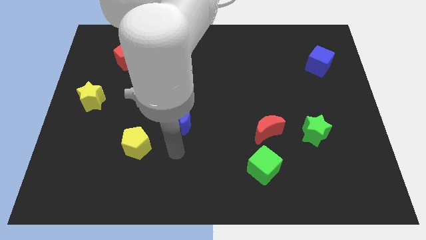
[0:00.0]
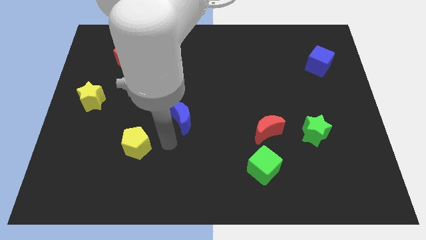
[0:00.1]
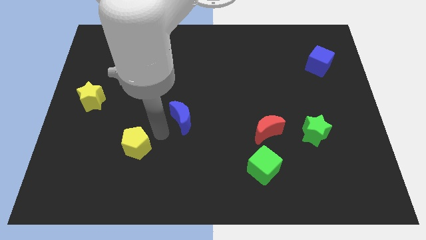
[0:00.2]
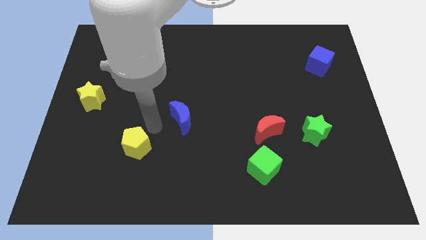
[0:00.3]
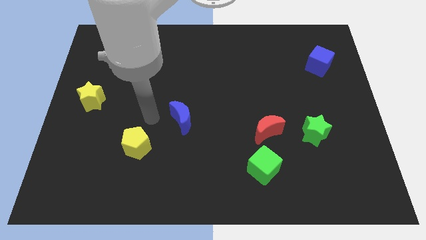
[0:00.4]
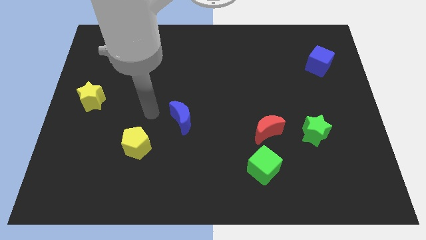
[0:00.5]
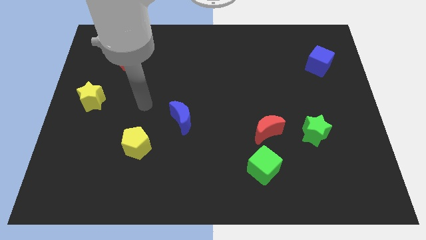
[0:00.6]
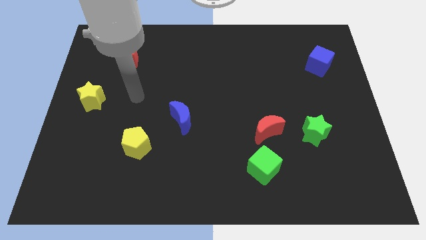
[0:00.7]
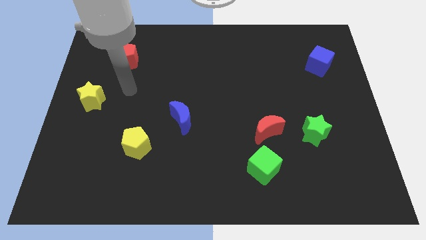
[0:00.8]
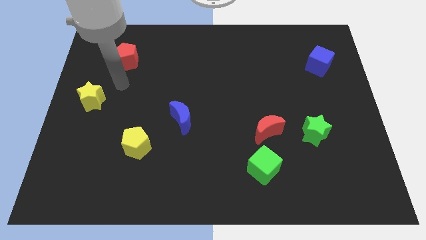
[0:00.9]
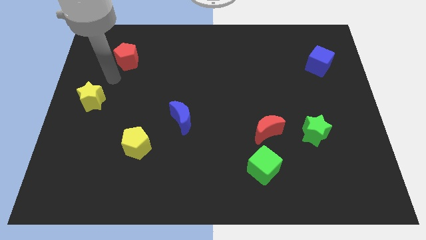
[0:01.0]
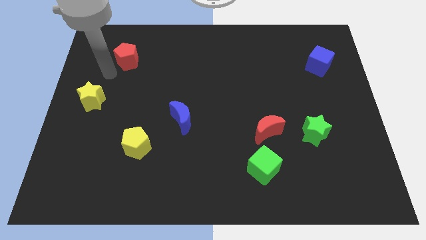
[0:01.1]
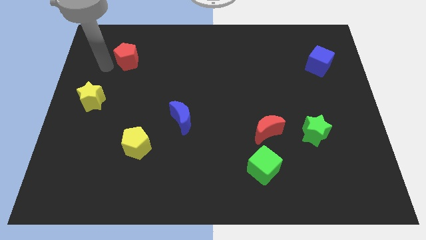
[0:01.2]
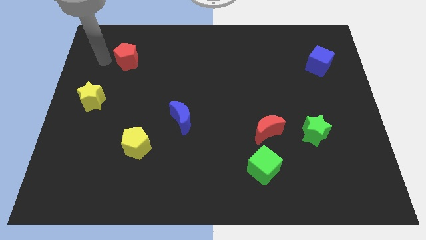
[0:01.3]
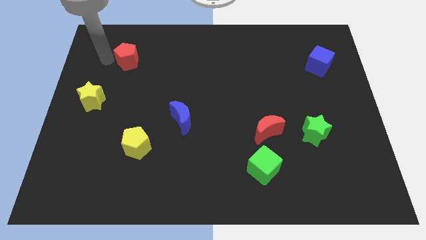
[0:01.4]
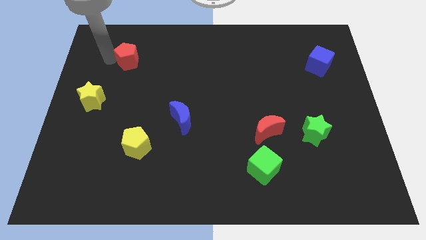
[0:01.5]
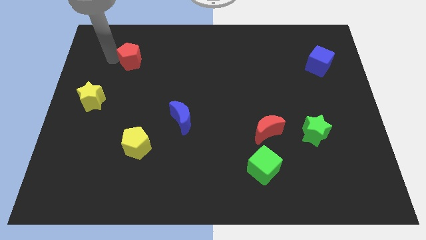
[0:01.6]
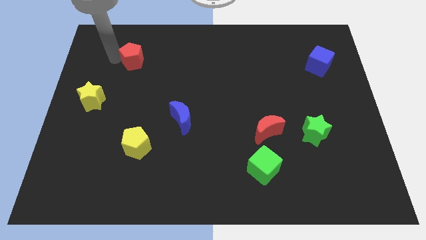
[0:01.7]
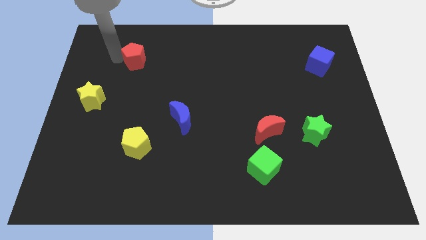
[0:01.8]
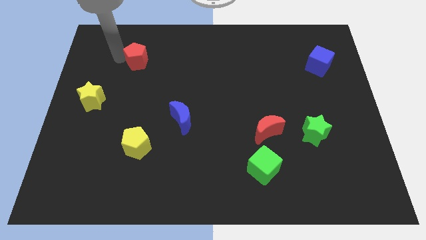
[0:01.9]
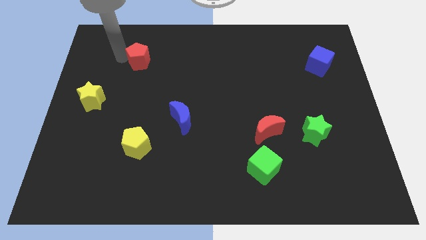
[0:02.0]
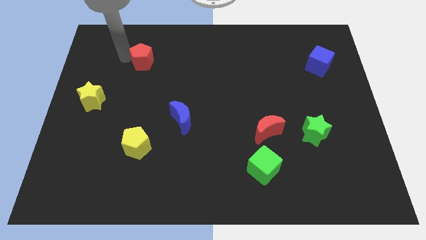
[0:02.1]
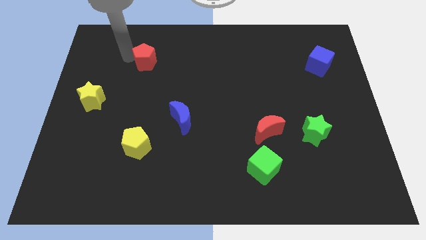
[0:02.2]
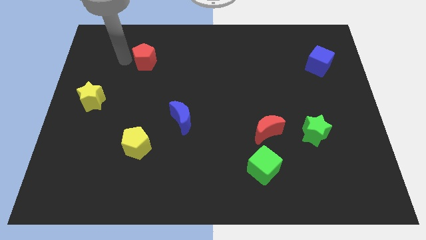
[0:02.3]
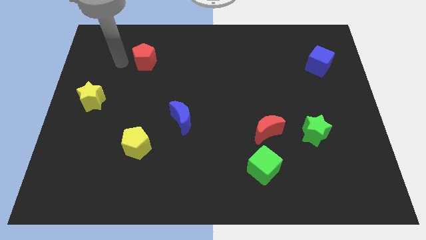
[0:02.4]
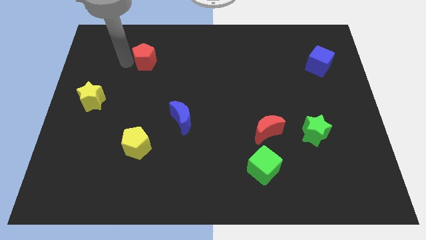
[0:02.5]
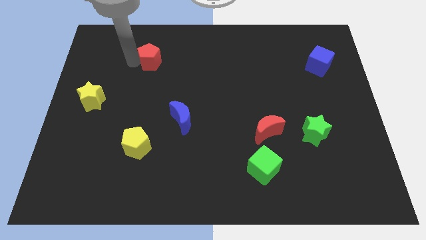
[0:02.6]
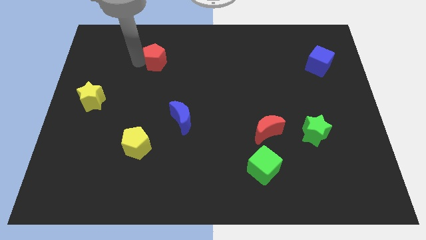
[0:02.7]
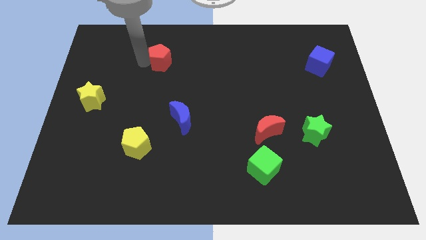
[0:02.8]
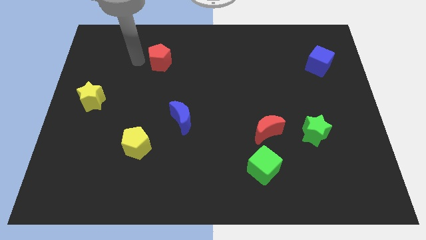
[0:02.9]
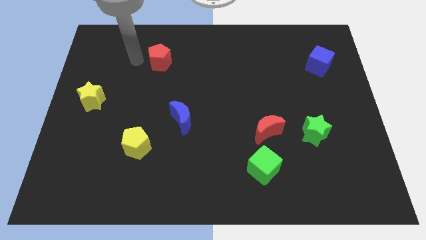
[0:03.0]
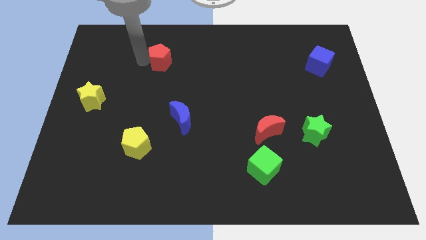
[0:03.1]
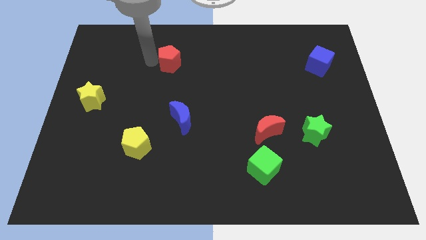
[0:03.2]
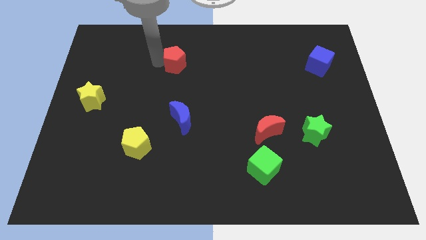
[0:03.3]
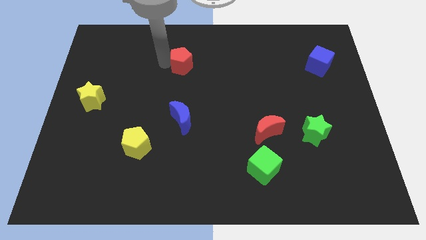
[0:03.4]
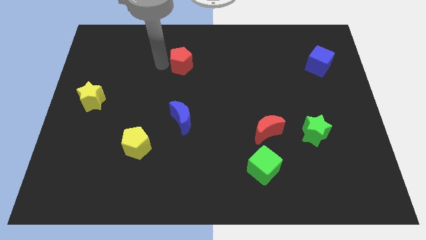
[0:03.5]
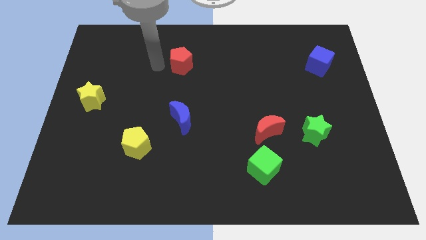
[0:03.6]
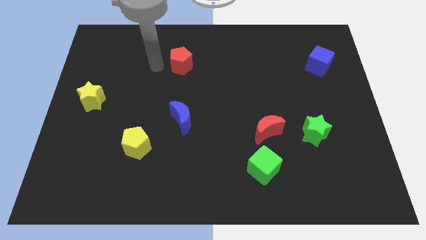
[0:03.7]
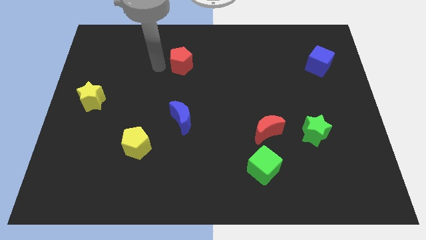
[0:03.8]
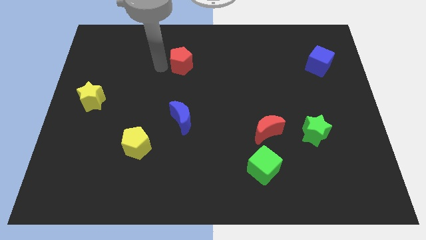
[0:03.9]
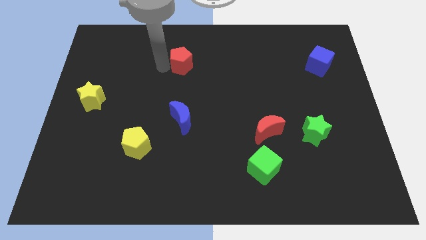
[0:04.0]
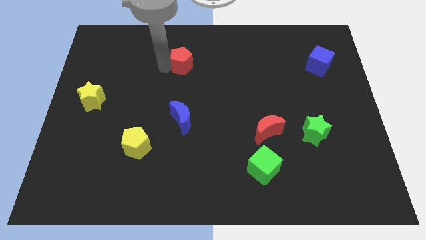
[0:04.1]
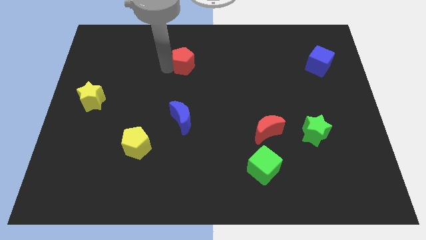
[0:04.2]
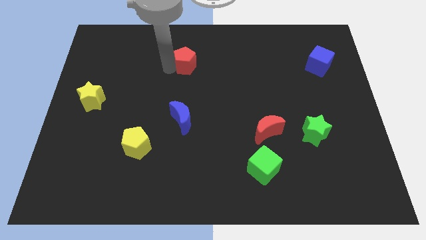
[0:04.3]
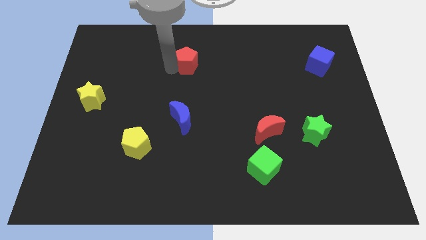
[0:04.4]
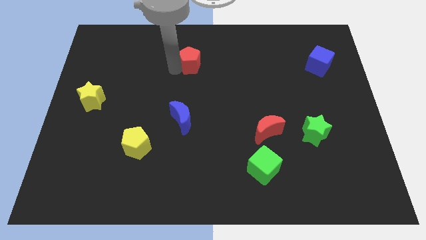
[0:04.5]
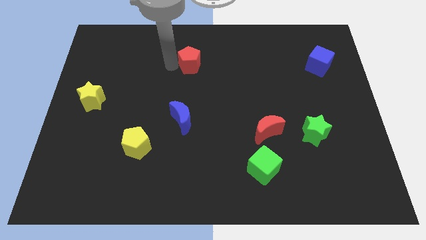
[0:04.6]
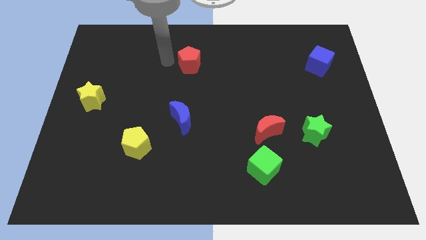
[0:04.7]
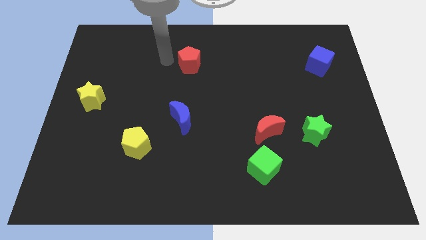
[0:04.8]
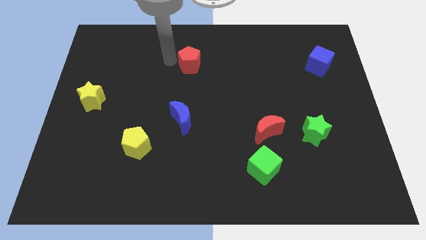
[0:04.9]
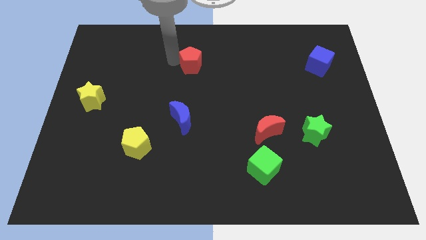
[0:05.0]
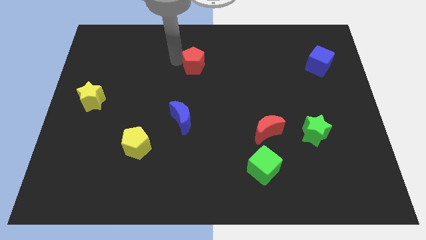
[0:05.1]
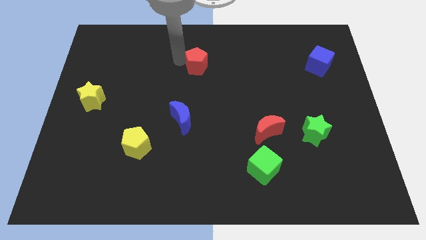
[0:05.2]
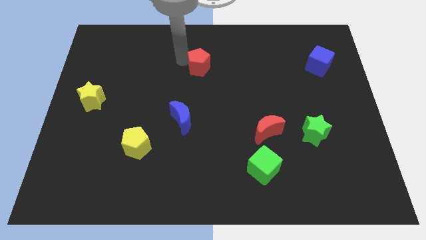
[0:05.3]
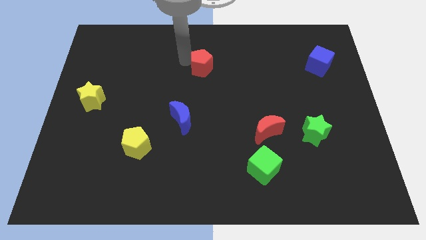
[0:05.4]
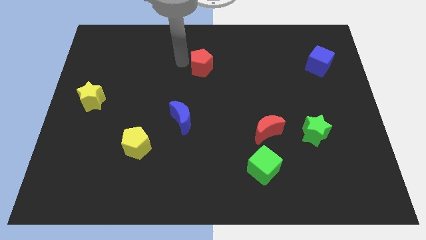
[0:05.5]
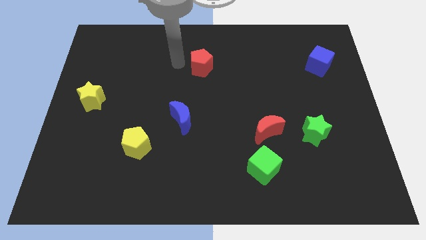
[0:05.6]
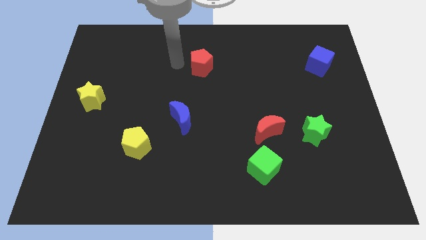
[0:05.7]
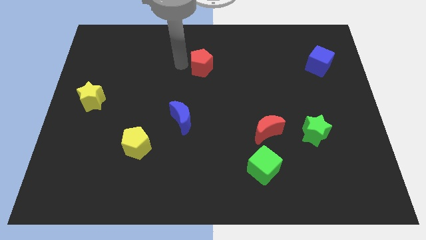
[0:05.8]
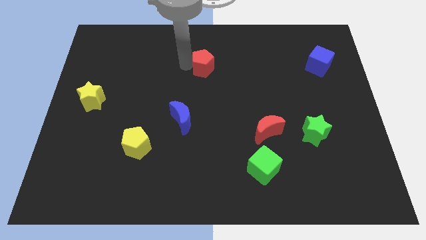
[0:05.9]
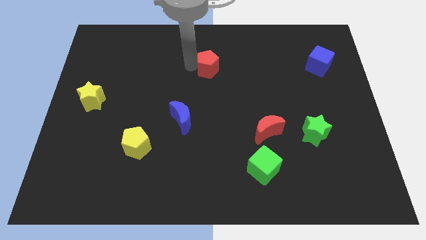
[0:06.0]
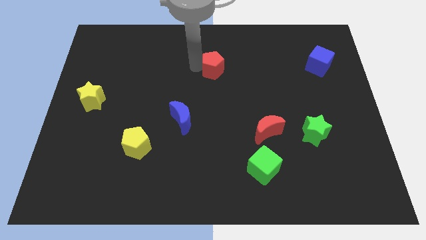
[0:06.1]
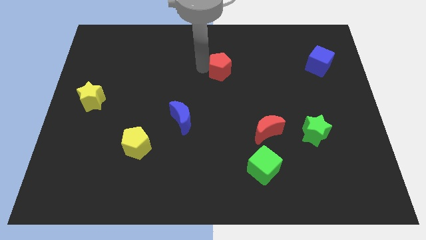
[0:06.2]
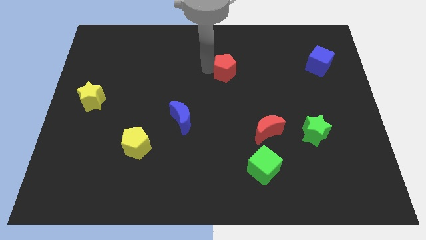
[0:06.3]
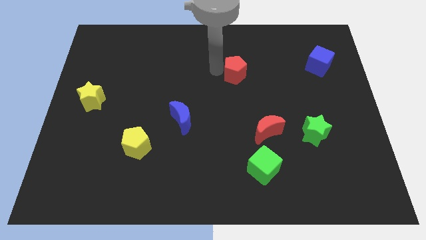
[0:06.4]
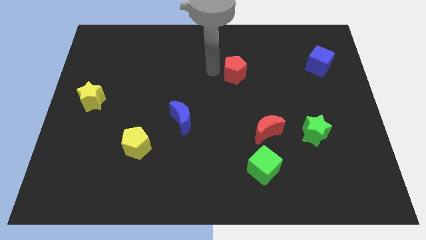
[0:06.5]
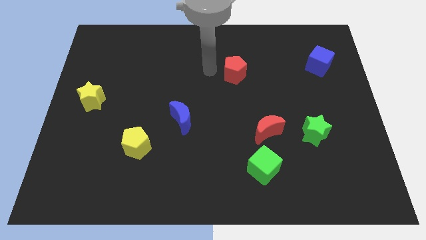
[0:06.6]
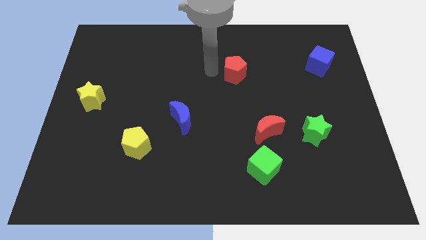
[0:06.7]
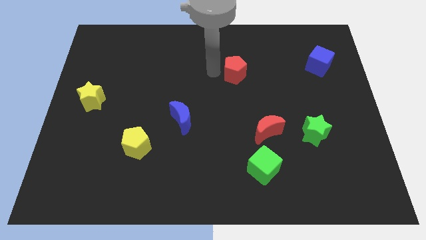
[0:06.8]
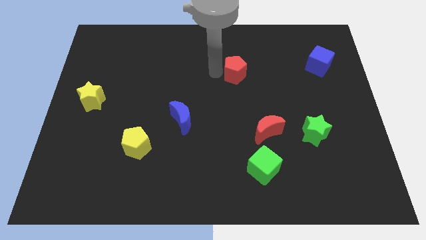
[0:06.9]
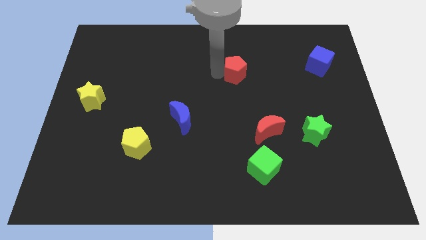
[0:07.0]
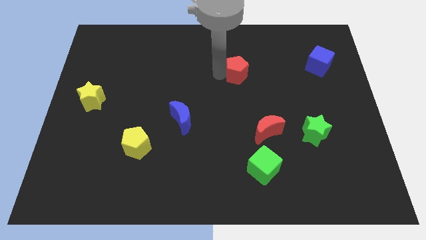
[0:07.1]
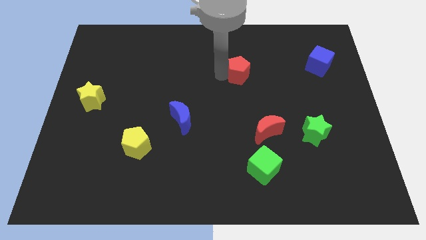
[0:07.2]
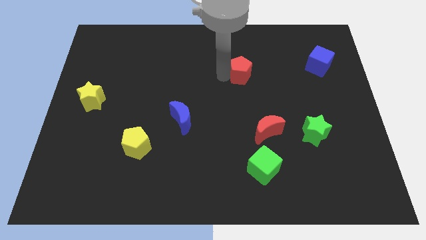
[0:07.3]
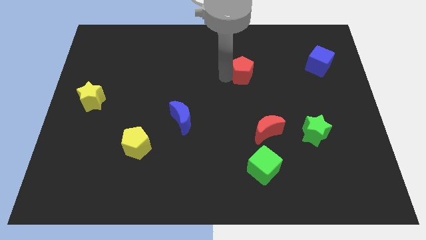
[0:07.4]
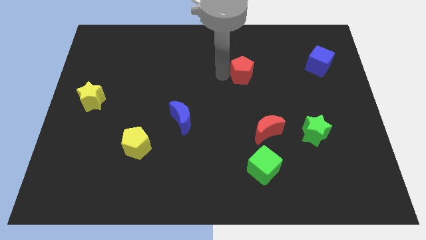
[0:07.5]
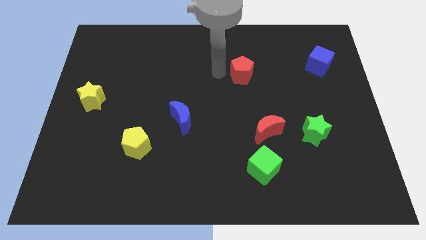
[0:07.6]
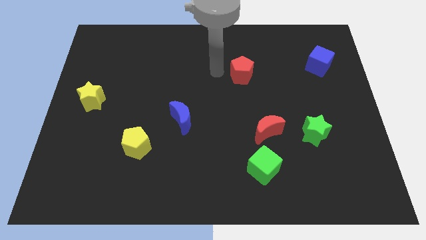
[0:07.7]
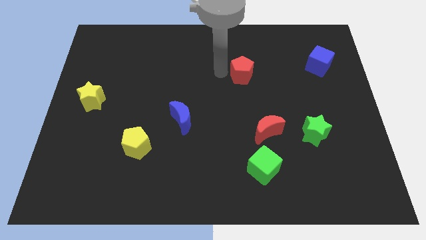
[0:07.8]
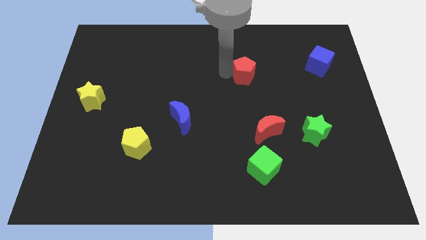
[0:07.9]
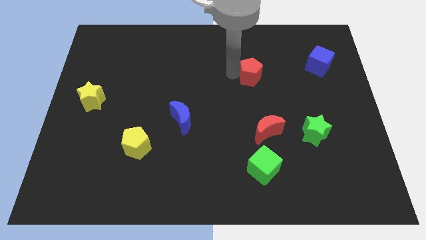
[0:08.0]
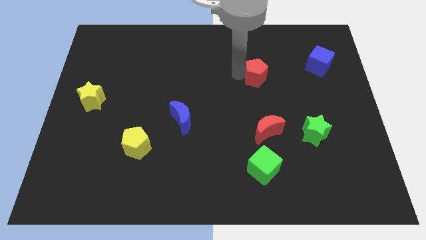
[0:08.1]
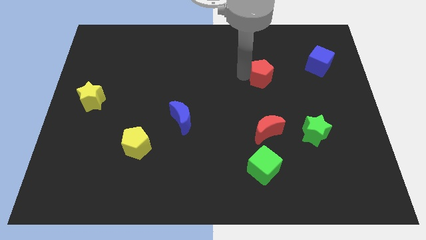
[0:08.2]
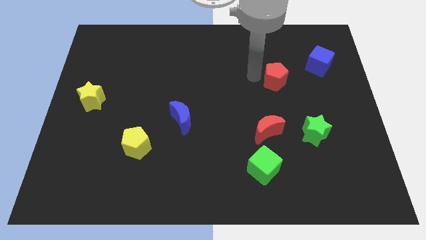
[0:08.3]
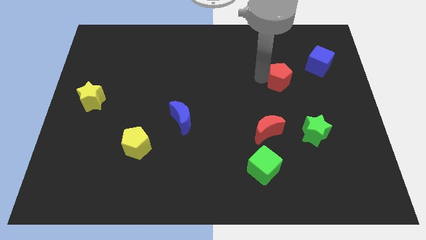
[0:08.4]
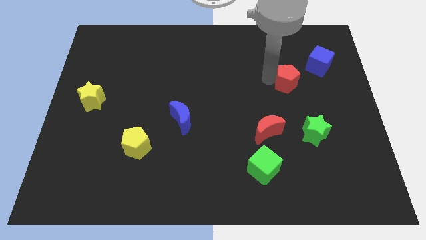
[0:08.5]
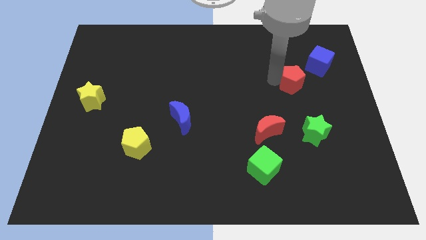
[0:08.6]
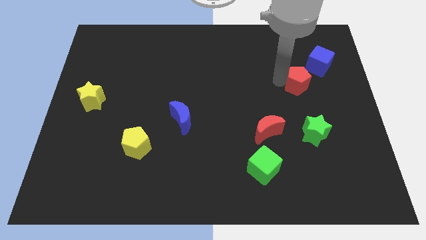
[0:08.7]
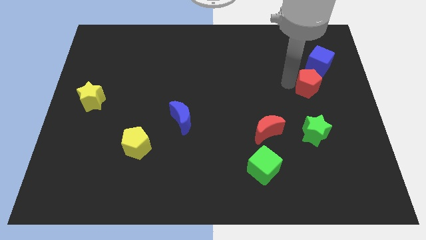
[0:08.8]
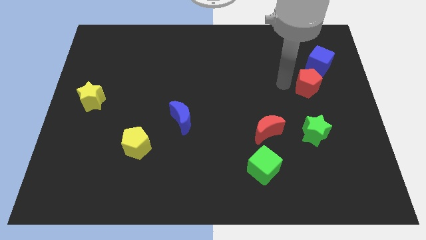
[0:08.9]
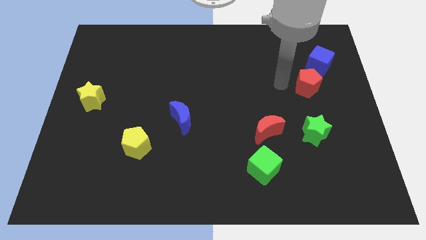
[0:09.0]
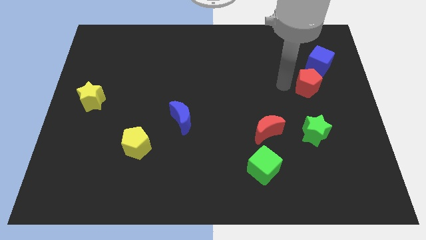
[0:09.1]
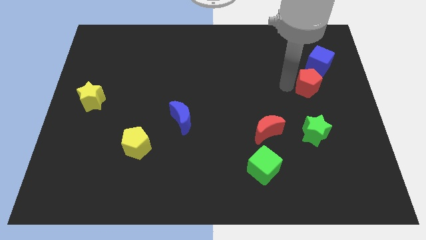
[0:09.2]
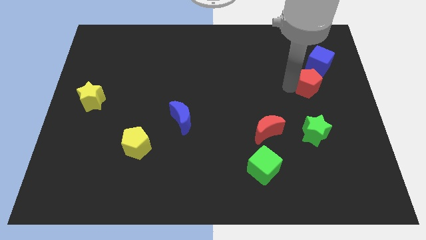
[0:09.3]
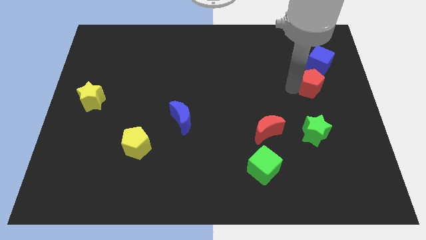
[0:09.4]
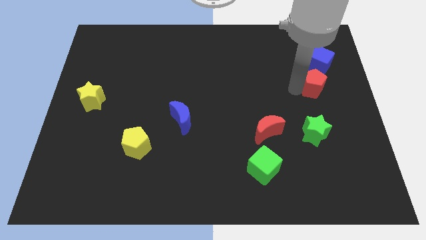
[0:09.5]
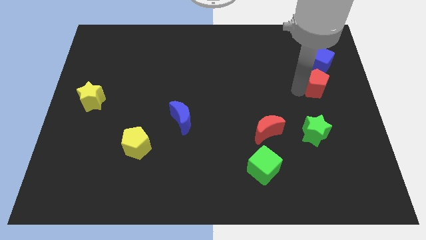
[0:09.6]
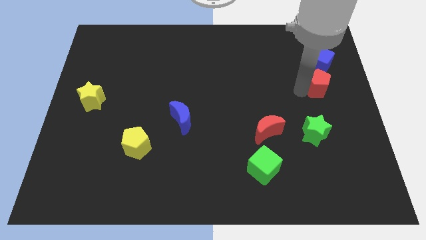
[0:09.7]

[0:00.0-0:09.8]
put the red pentagon to the right side of the board
